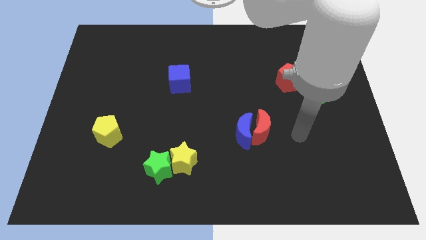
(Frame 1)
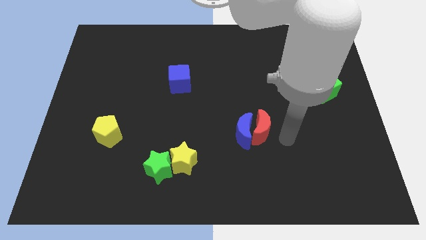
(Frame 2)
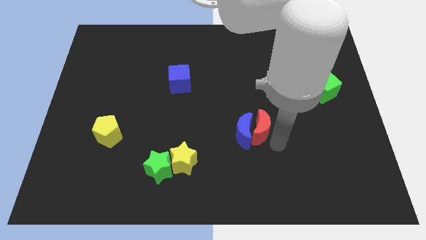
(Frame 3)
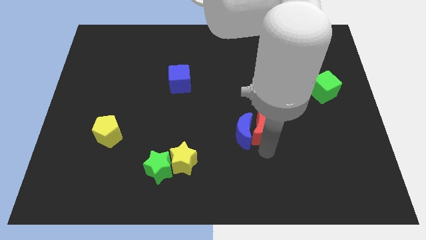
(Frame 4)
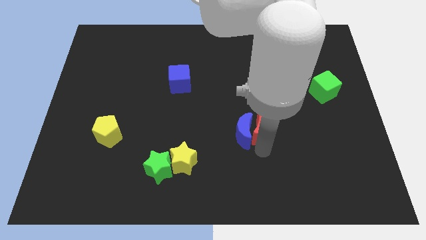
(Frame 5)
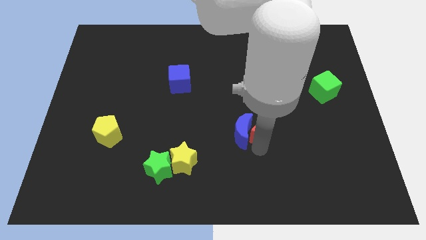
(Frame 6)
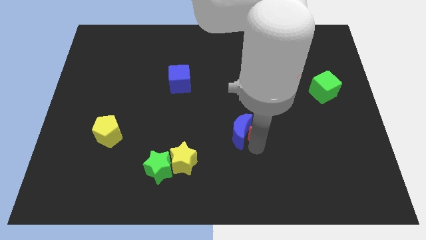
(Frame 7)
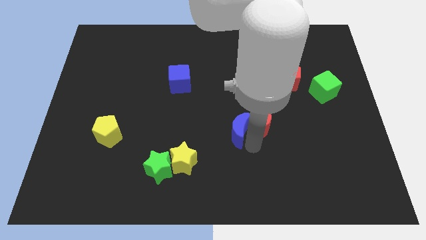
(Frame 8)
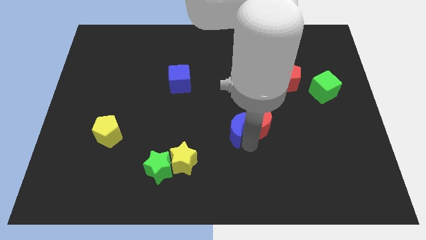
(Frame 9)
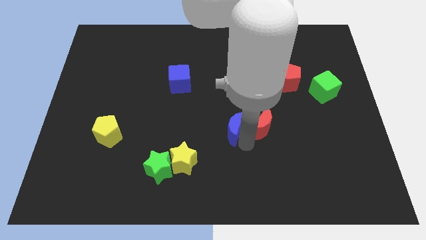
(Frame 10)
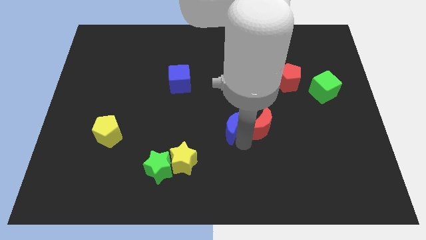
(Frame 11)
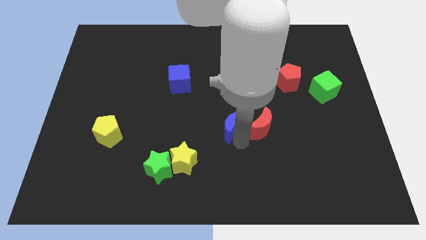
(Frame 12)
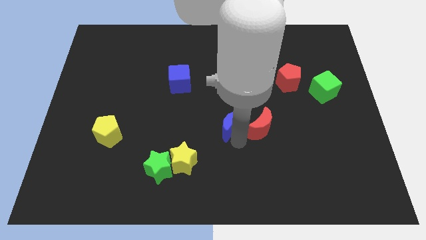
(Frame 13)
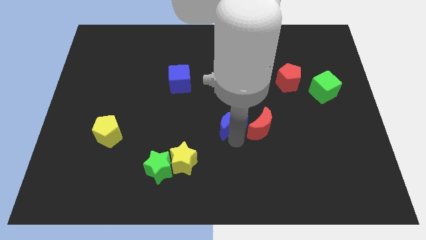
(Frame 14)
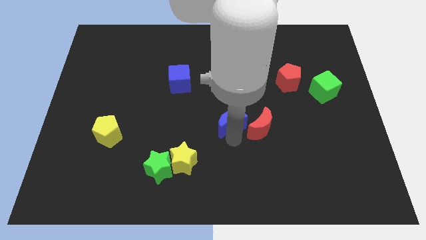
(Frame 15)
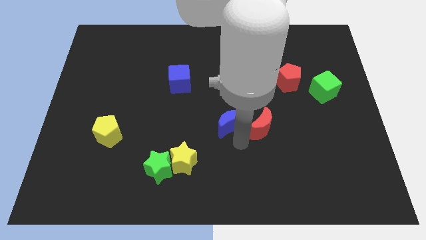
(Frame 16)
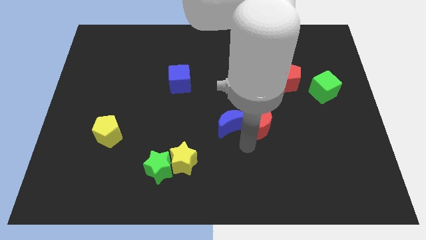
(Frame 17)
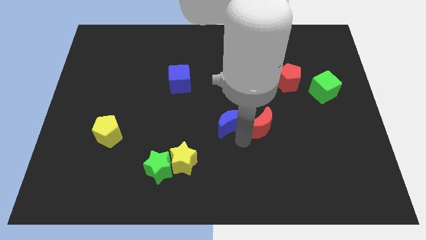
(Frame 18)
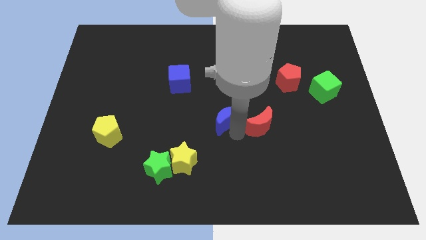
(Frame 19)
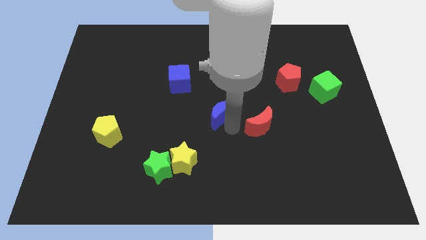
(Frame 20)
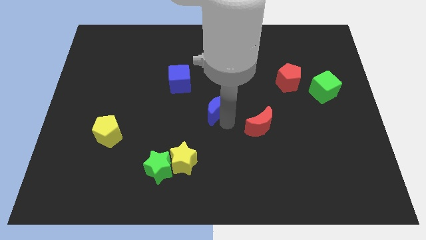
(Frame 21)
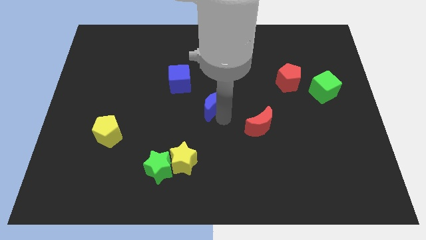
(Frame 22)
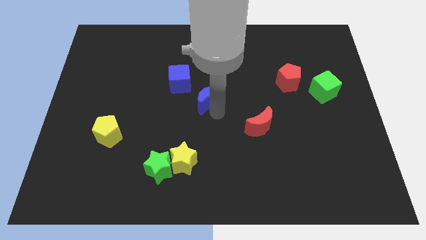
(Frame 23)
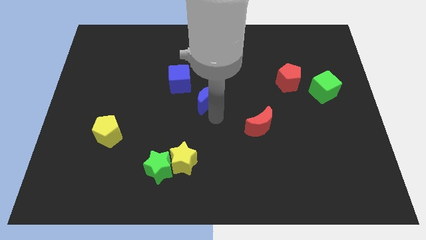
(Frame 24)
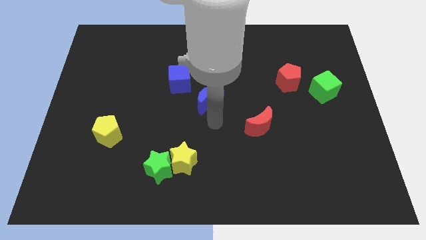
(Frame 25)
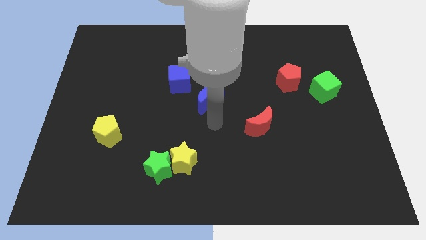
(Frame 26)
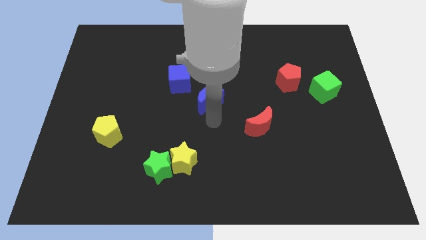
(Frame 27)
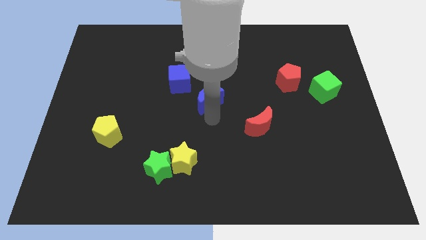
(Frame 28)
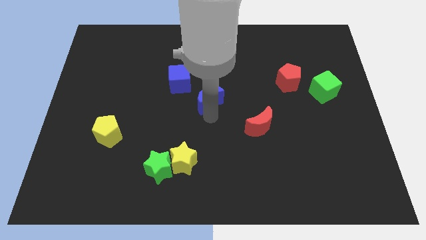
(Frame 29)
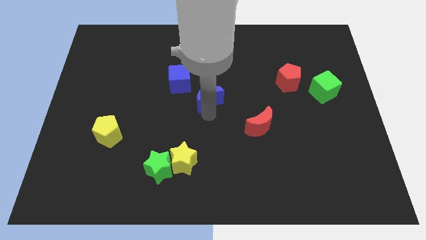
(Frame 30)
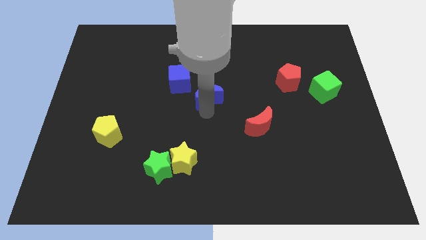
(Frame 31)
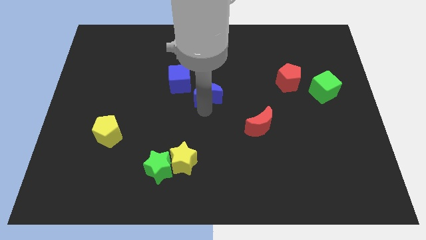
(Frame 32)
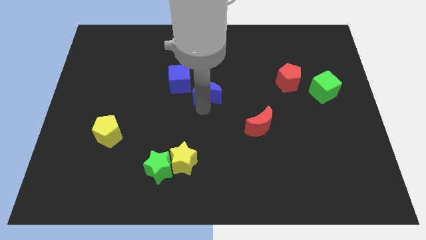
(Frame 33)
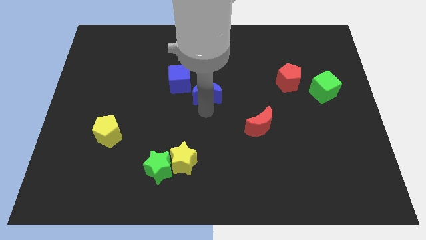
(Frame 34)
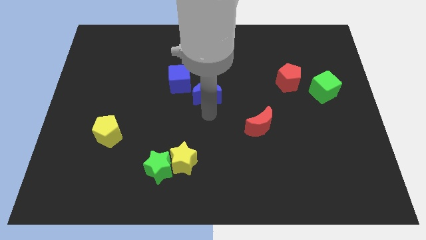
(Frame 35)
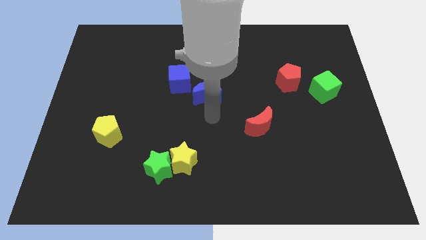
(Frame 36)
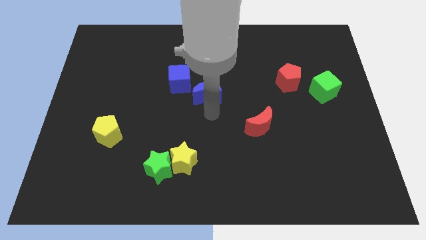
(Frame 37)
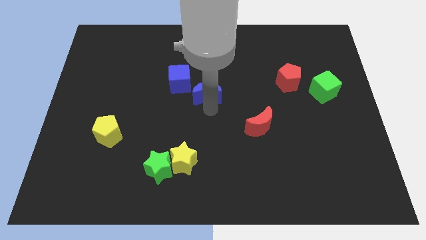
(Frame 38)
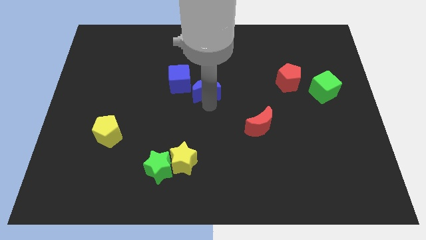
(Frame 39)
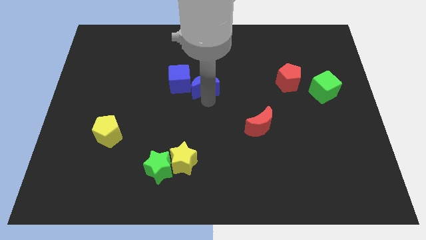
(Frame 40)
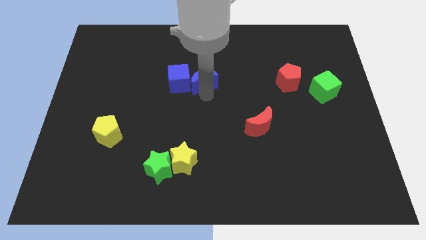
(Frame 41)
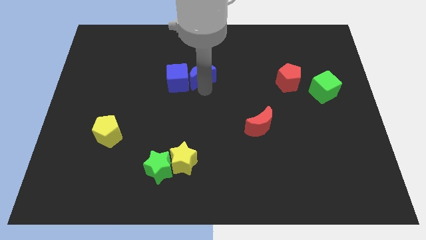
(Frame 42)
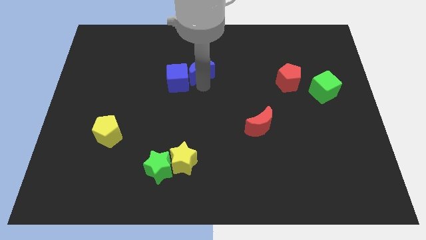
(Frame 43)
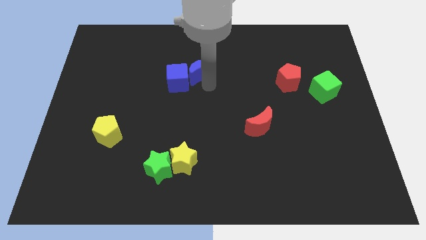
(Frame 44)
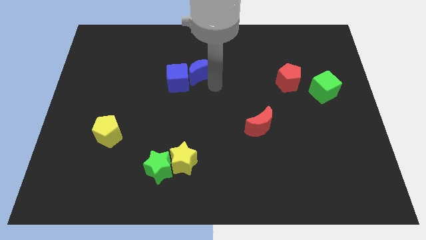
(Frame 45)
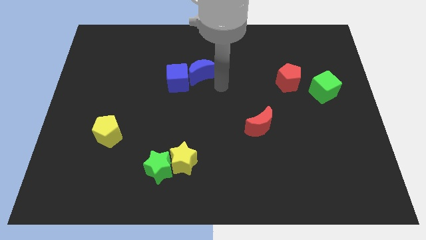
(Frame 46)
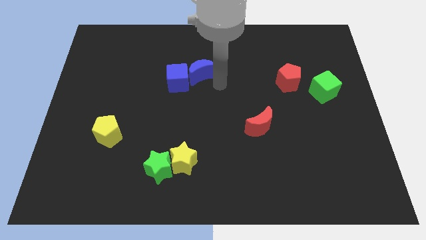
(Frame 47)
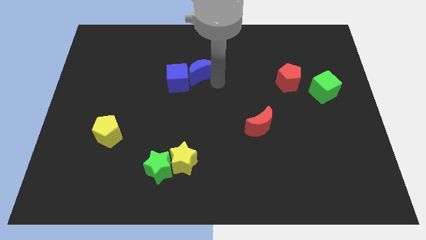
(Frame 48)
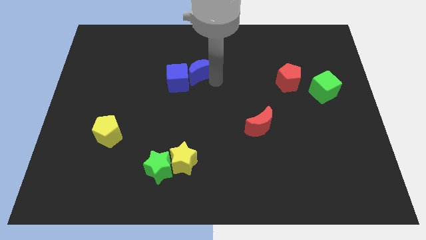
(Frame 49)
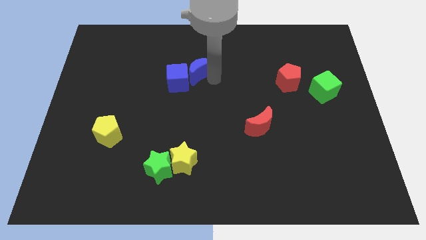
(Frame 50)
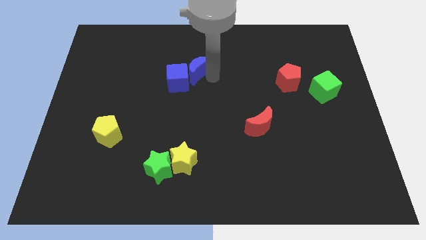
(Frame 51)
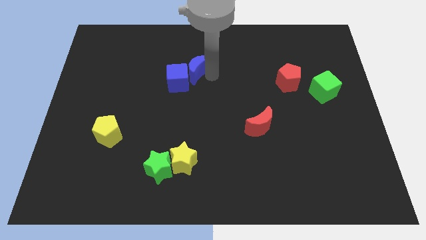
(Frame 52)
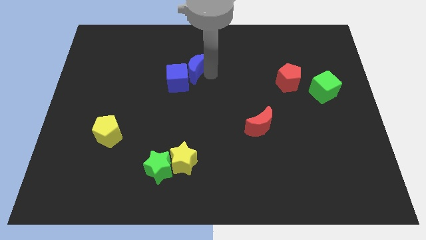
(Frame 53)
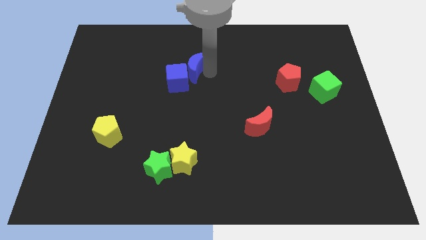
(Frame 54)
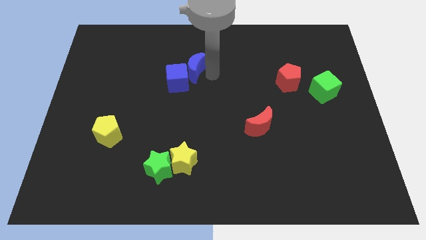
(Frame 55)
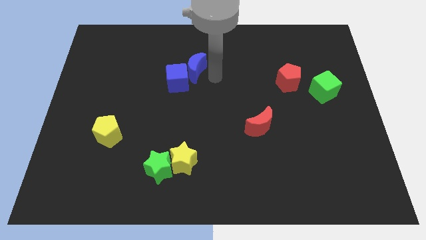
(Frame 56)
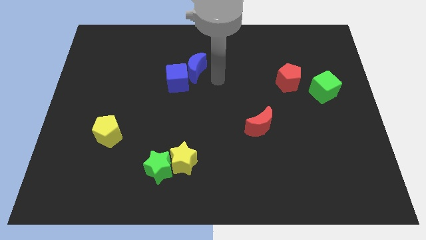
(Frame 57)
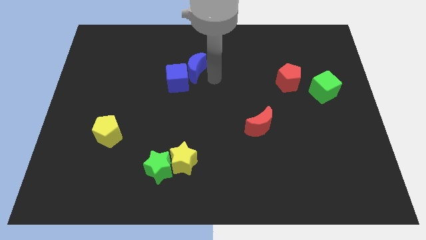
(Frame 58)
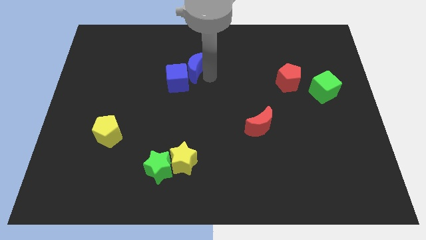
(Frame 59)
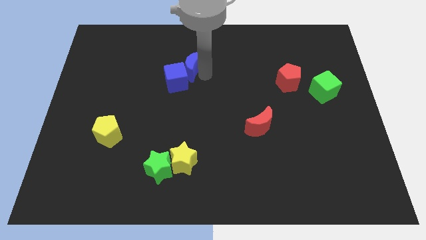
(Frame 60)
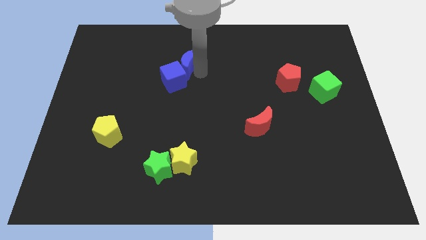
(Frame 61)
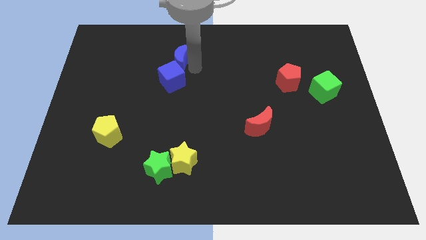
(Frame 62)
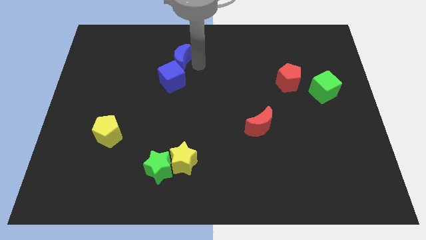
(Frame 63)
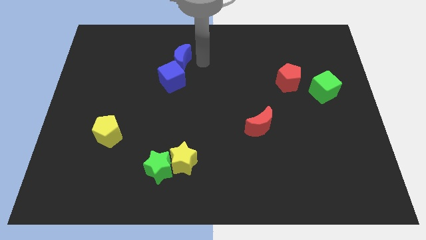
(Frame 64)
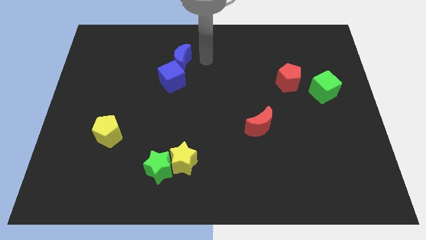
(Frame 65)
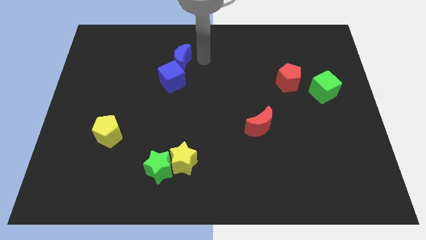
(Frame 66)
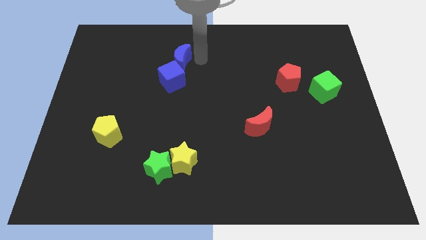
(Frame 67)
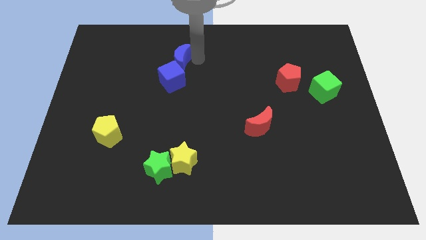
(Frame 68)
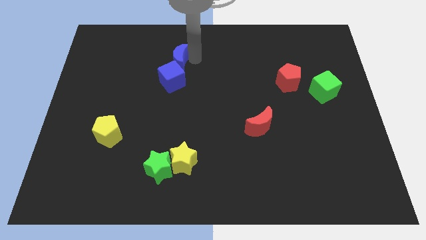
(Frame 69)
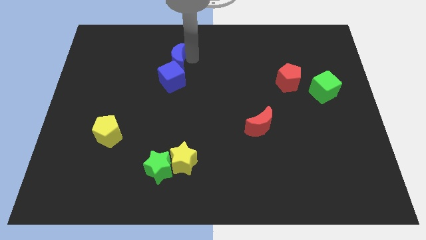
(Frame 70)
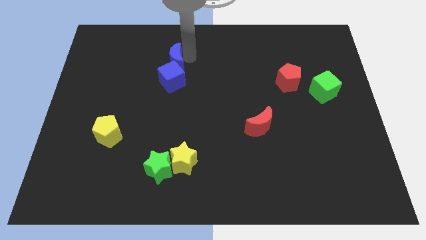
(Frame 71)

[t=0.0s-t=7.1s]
move the blue moon diagonally up and to the left of the blue cube

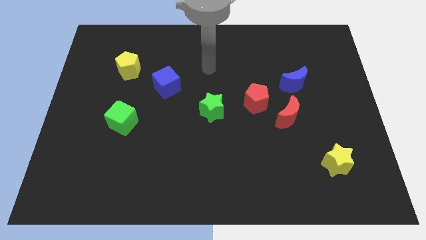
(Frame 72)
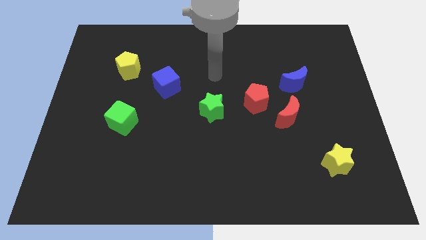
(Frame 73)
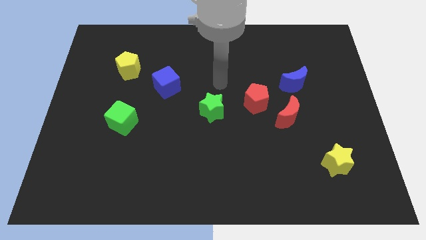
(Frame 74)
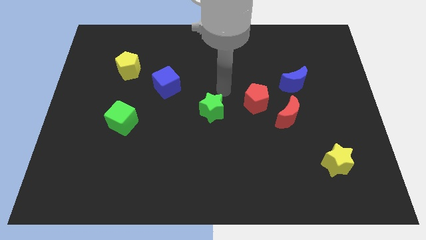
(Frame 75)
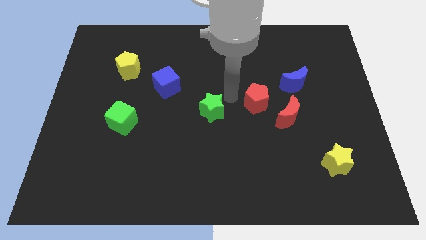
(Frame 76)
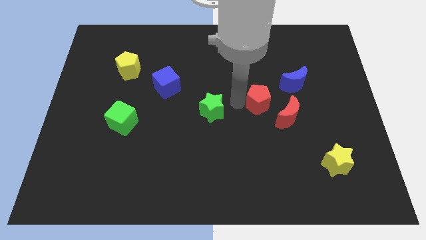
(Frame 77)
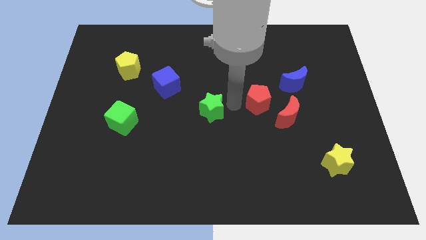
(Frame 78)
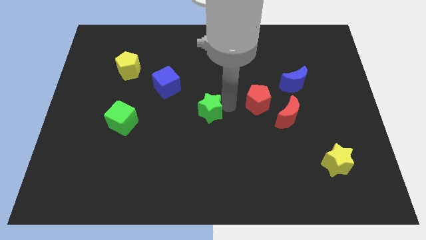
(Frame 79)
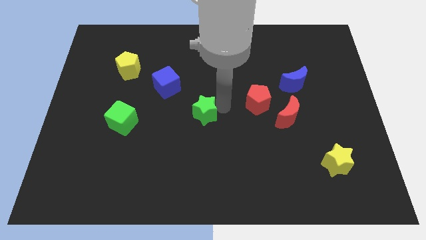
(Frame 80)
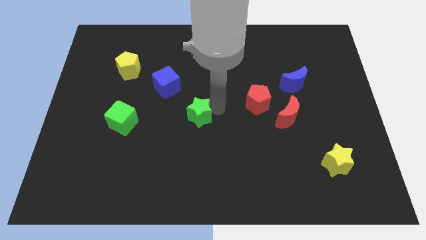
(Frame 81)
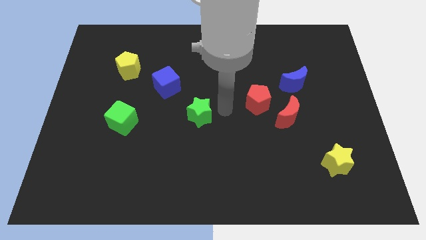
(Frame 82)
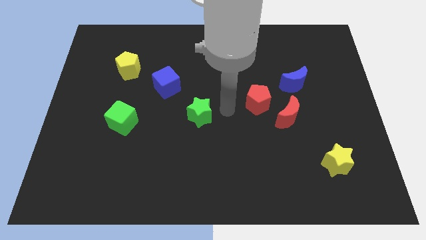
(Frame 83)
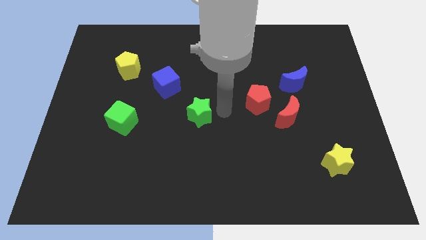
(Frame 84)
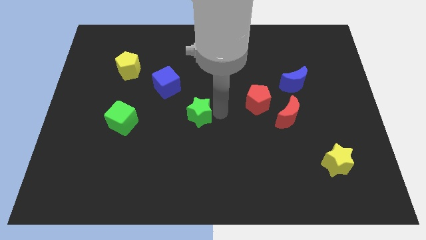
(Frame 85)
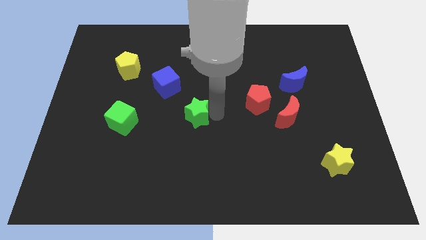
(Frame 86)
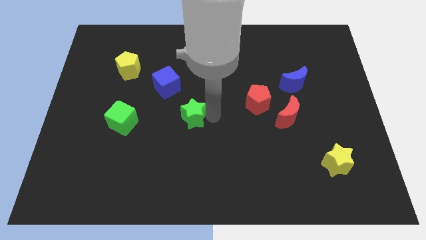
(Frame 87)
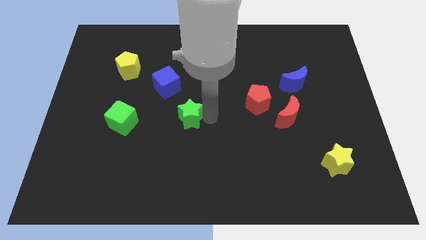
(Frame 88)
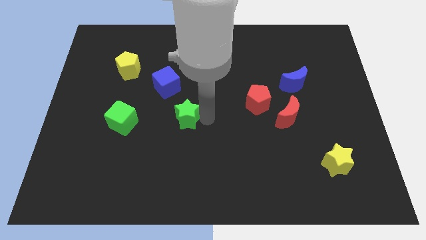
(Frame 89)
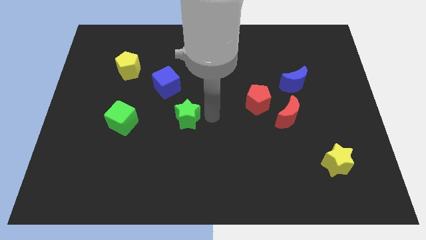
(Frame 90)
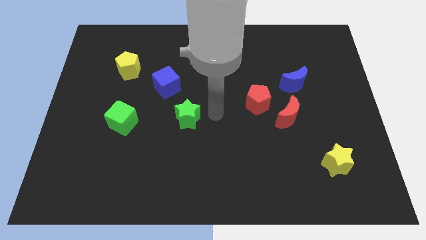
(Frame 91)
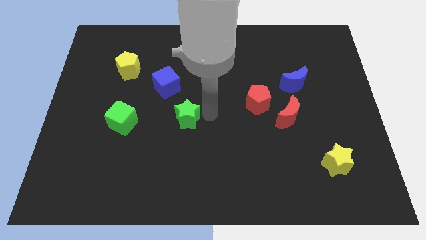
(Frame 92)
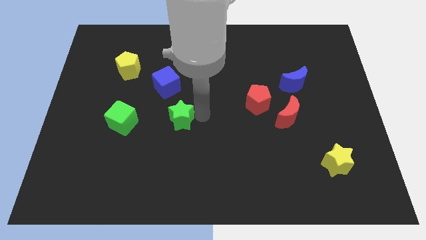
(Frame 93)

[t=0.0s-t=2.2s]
put the green star below the blue cube
